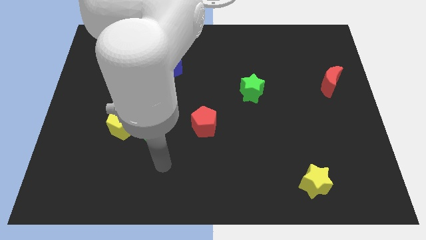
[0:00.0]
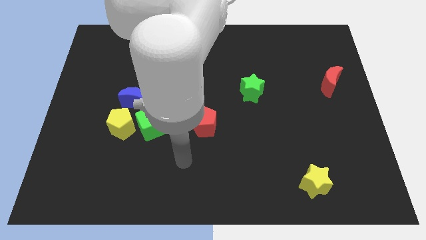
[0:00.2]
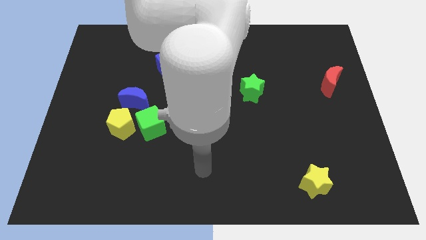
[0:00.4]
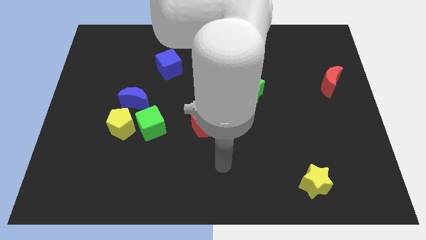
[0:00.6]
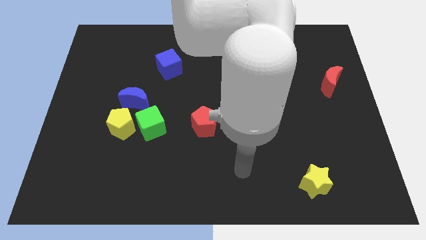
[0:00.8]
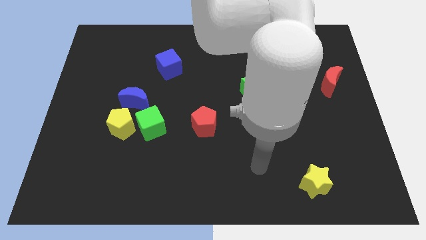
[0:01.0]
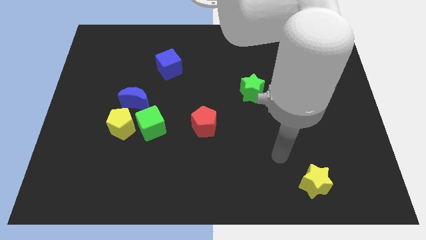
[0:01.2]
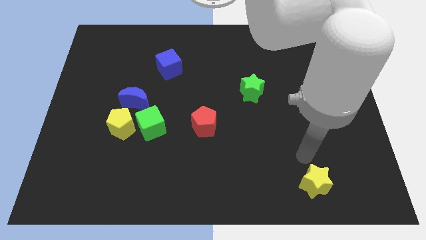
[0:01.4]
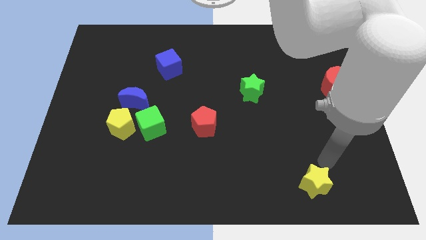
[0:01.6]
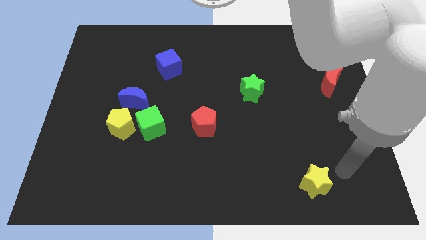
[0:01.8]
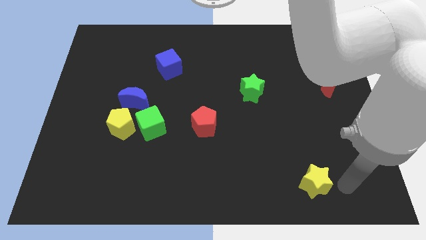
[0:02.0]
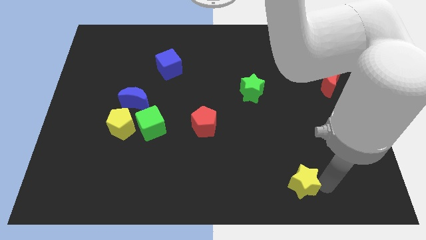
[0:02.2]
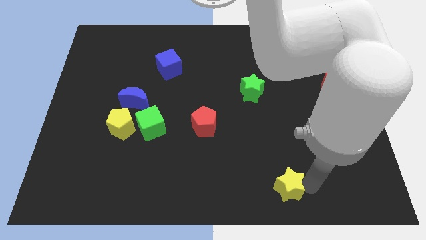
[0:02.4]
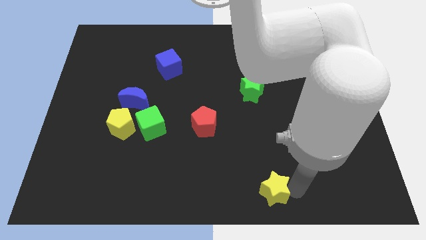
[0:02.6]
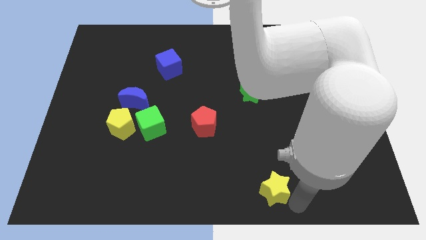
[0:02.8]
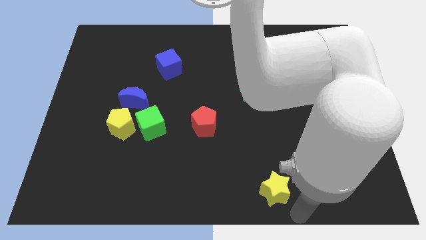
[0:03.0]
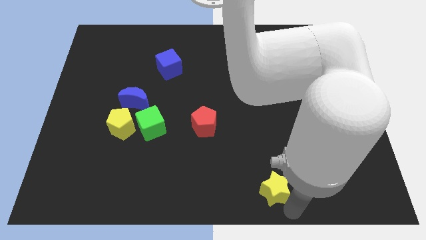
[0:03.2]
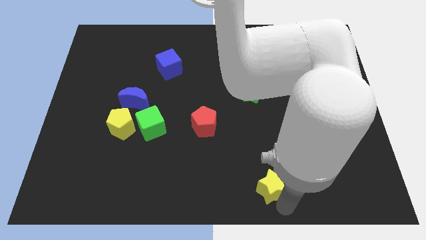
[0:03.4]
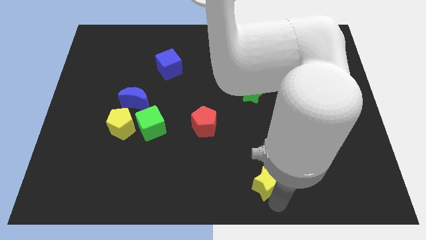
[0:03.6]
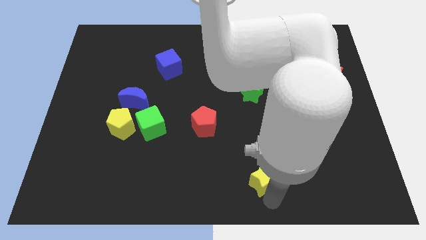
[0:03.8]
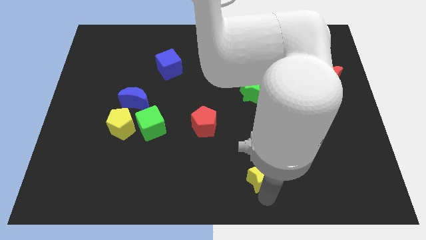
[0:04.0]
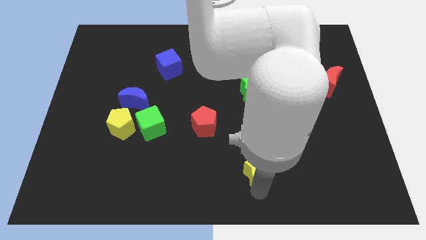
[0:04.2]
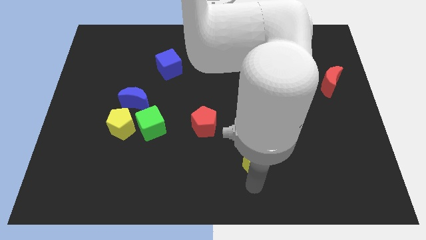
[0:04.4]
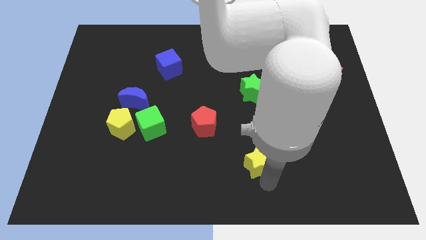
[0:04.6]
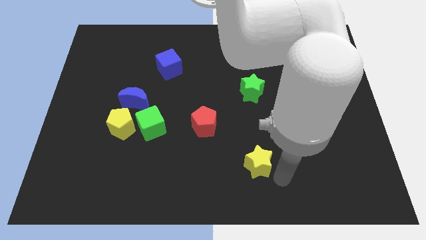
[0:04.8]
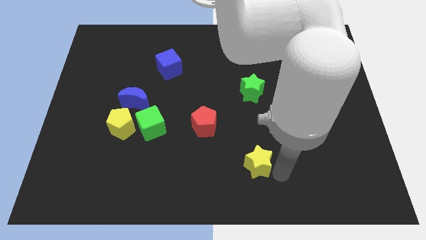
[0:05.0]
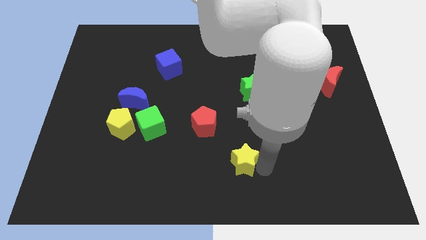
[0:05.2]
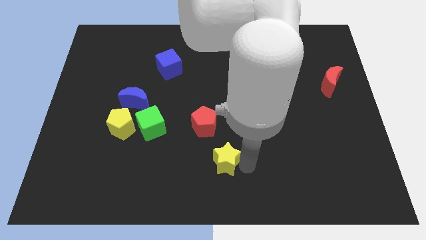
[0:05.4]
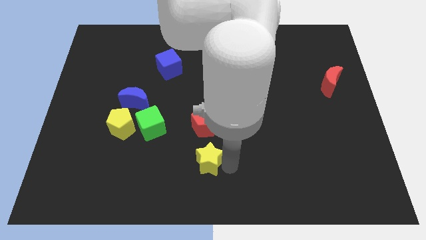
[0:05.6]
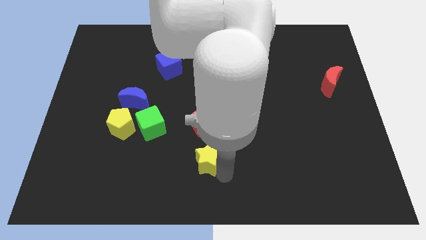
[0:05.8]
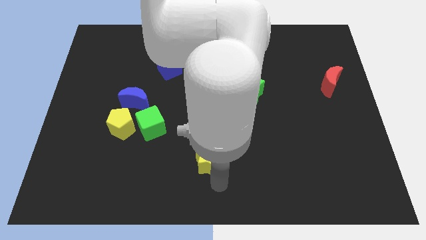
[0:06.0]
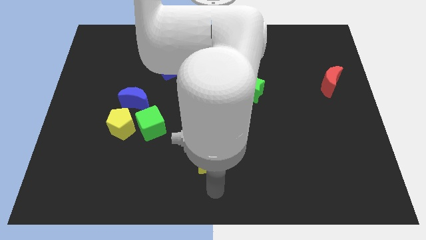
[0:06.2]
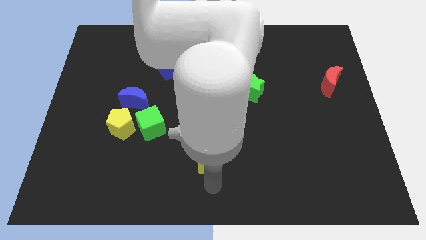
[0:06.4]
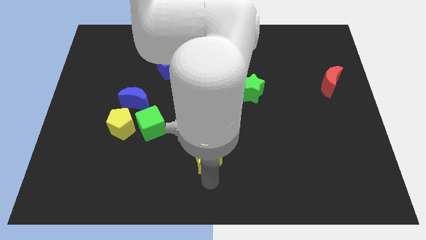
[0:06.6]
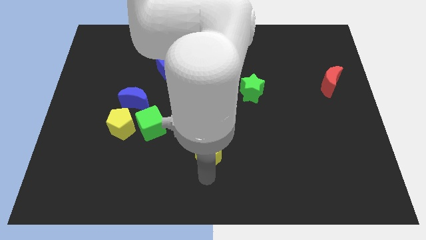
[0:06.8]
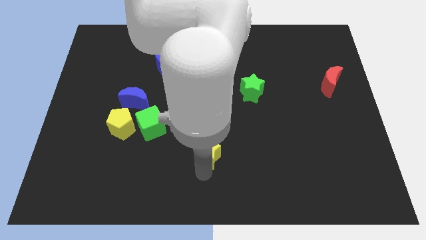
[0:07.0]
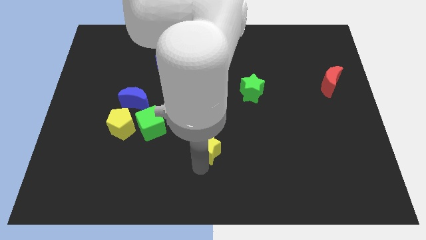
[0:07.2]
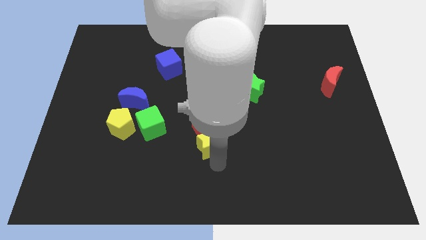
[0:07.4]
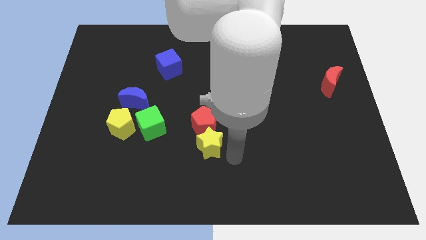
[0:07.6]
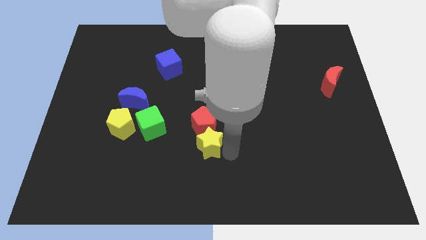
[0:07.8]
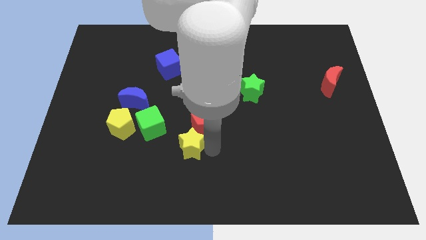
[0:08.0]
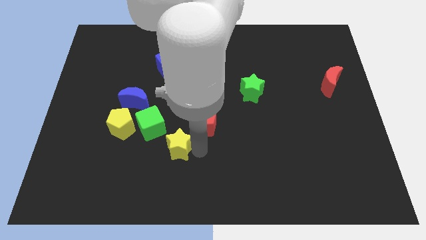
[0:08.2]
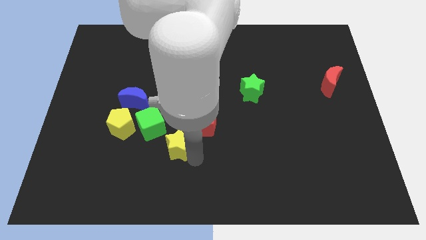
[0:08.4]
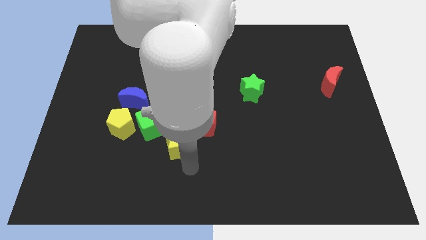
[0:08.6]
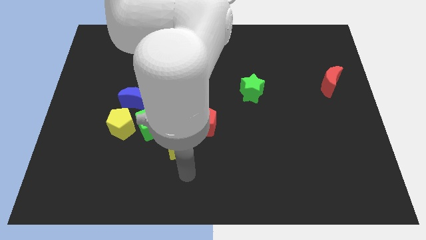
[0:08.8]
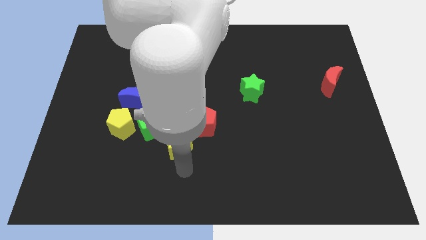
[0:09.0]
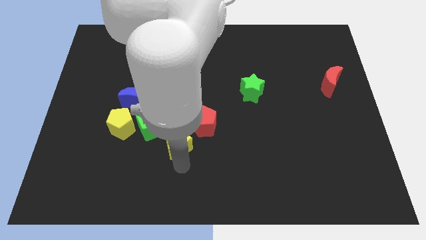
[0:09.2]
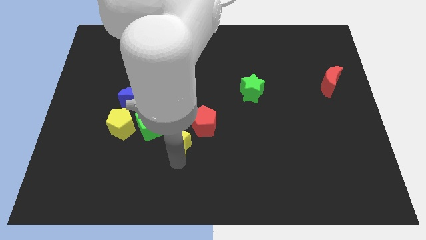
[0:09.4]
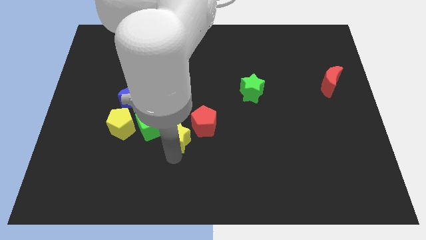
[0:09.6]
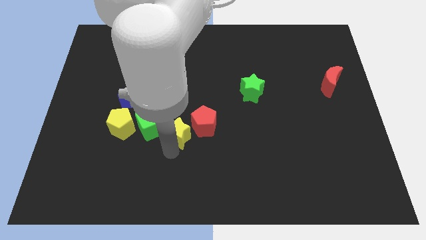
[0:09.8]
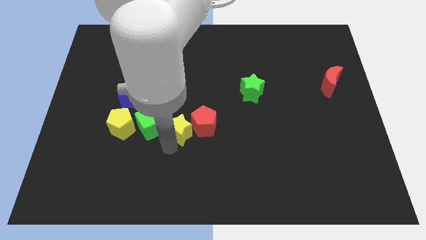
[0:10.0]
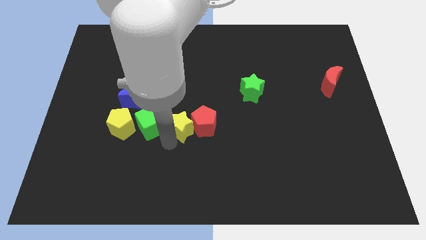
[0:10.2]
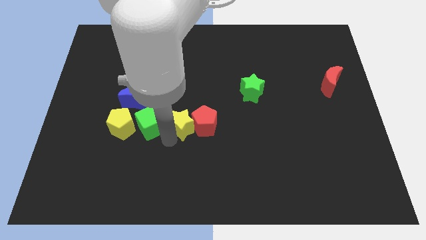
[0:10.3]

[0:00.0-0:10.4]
slide the yellow star to the top right of the green cube

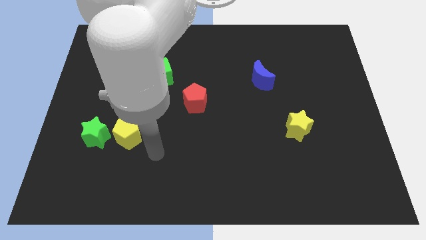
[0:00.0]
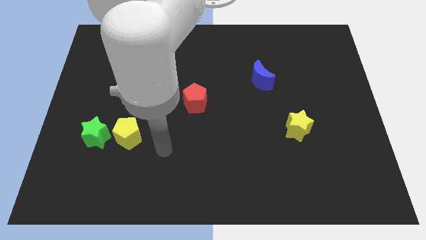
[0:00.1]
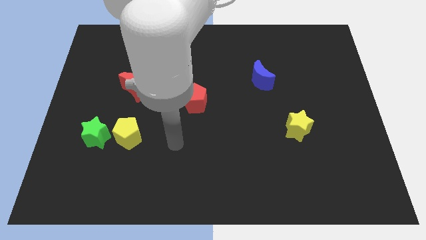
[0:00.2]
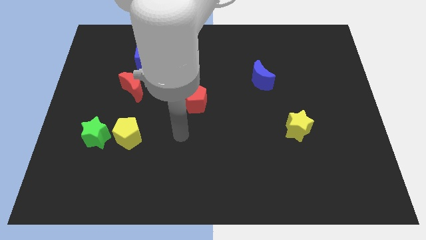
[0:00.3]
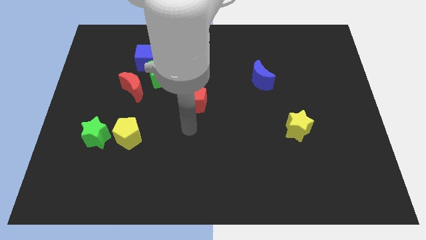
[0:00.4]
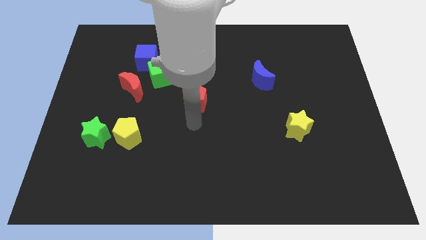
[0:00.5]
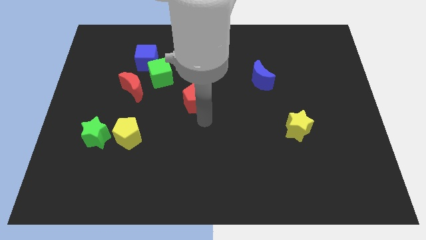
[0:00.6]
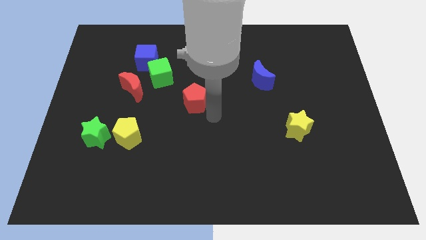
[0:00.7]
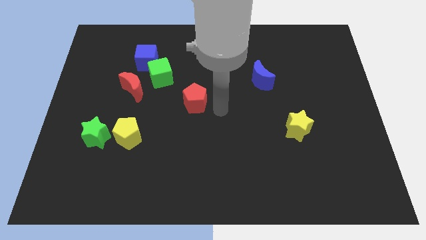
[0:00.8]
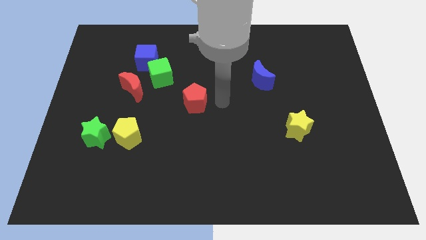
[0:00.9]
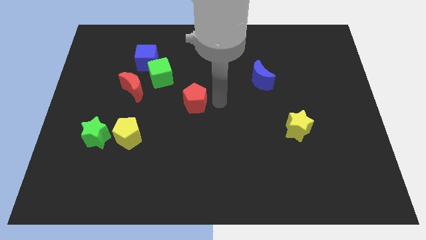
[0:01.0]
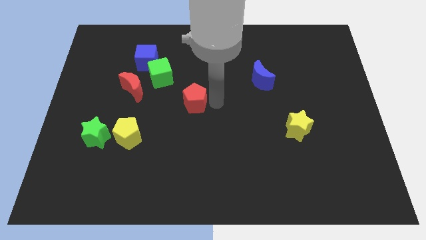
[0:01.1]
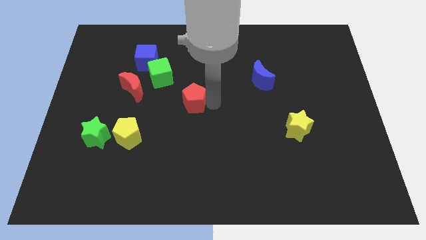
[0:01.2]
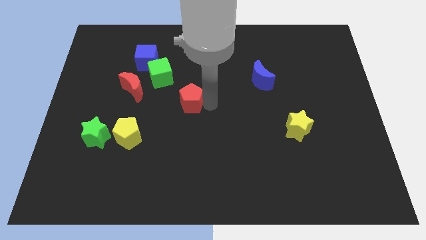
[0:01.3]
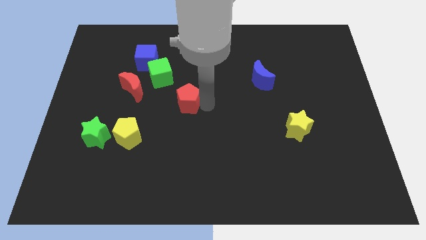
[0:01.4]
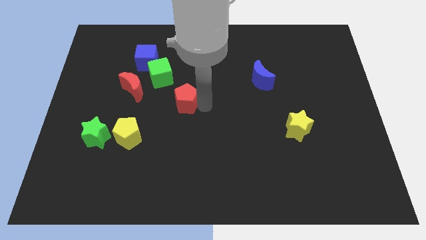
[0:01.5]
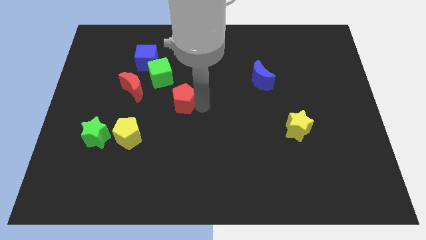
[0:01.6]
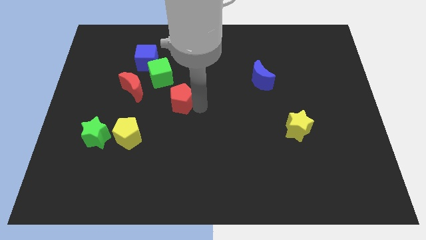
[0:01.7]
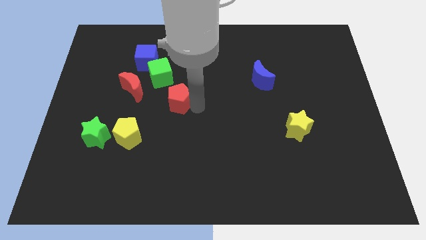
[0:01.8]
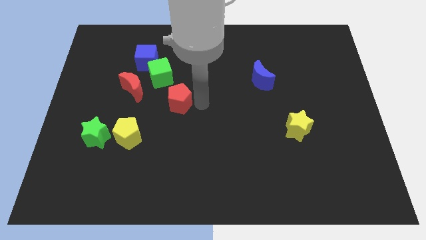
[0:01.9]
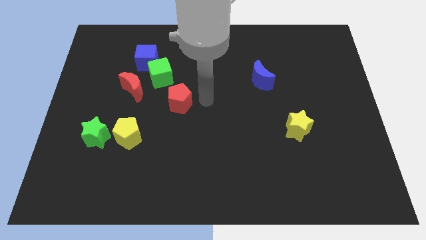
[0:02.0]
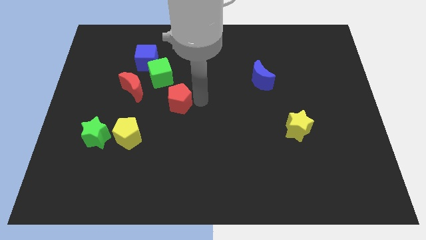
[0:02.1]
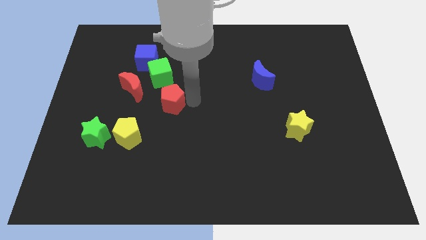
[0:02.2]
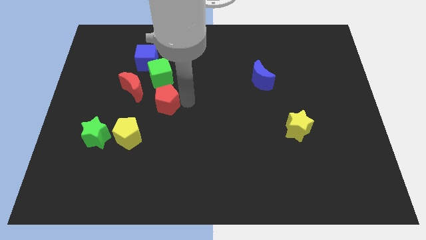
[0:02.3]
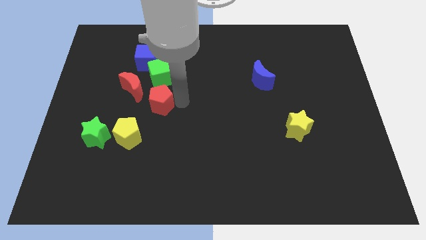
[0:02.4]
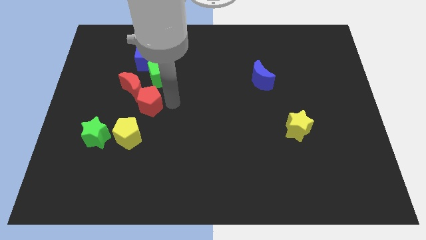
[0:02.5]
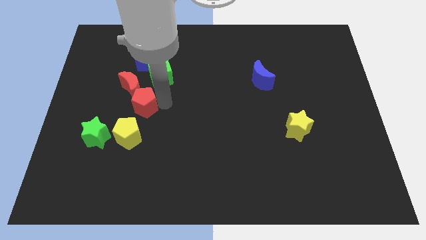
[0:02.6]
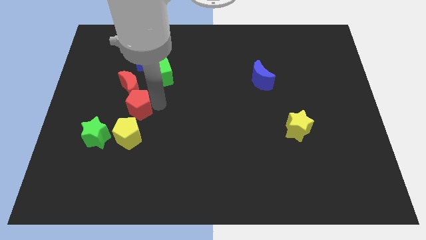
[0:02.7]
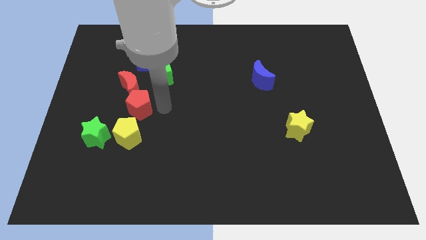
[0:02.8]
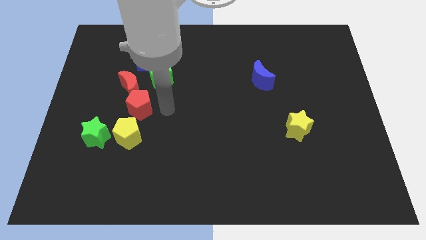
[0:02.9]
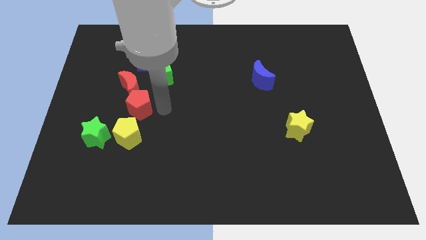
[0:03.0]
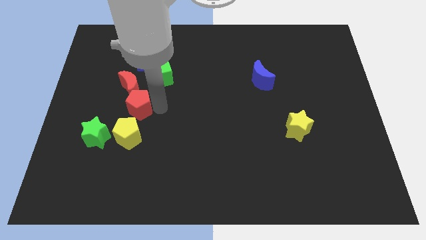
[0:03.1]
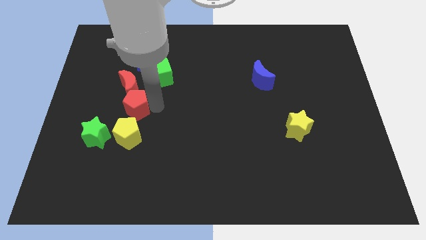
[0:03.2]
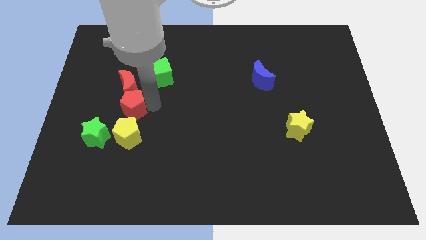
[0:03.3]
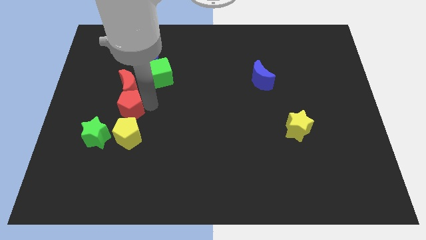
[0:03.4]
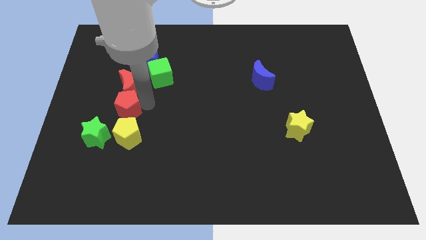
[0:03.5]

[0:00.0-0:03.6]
slide the red pentagon diagonally down and to the left of the red moon
